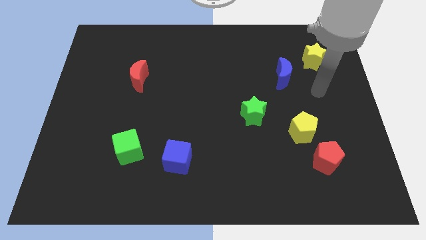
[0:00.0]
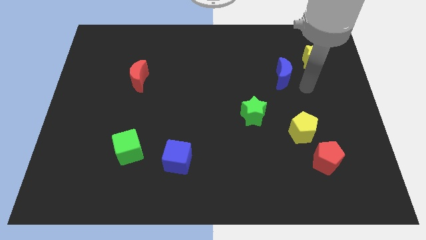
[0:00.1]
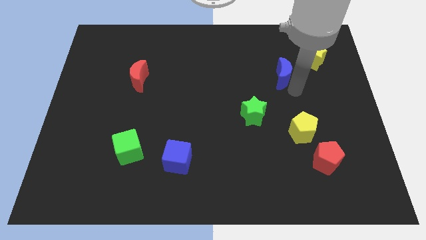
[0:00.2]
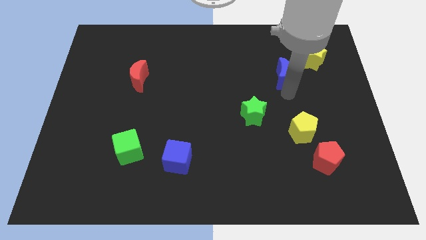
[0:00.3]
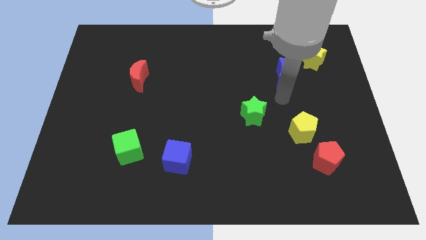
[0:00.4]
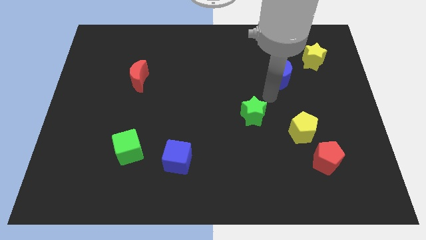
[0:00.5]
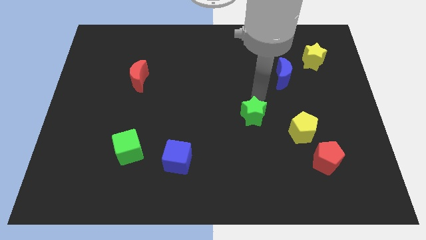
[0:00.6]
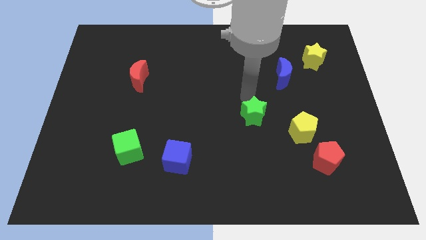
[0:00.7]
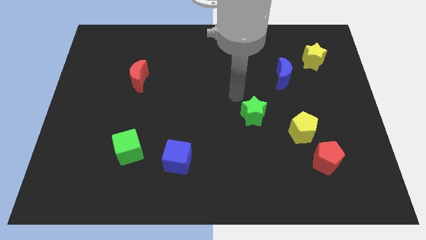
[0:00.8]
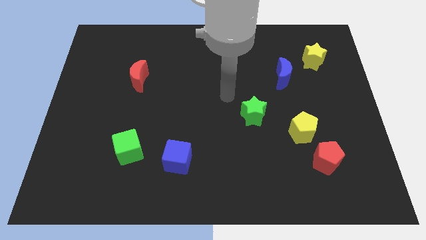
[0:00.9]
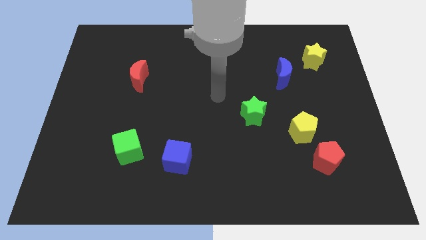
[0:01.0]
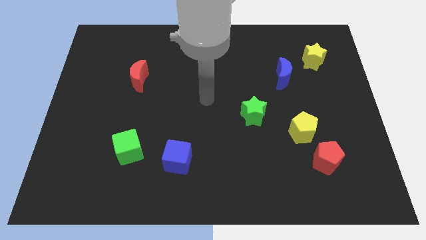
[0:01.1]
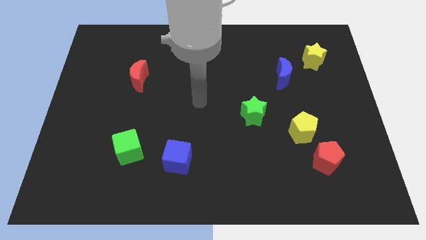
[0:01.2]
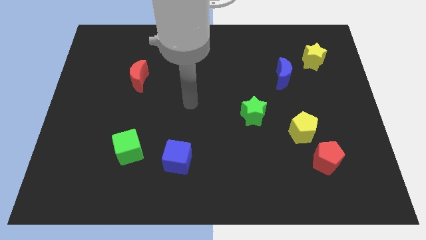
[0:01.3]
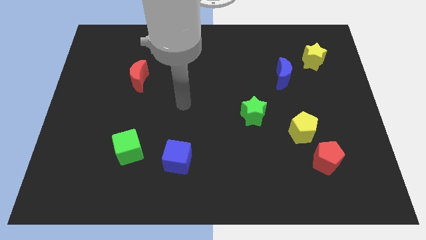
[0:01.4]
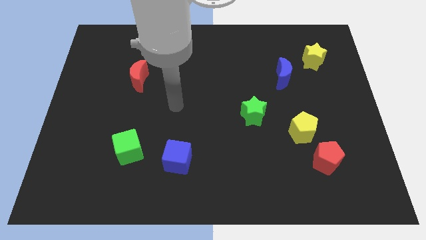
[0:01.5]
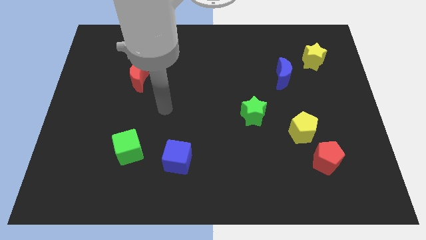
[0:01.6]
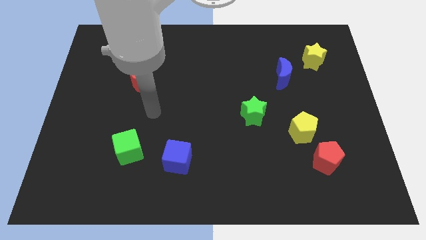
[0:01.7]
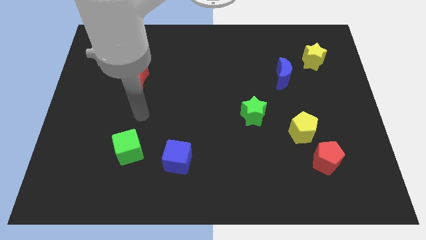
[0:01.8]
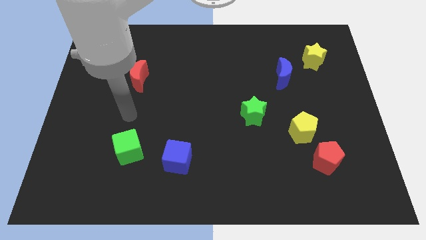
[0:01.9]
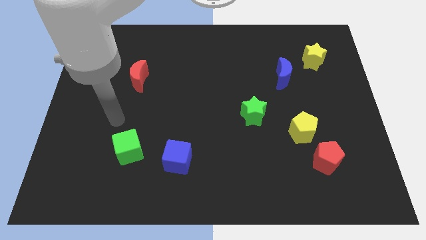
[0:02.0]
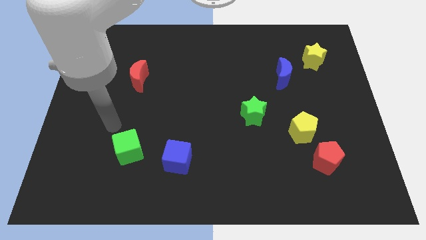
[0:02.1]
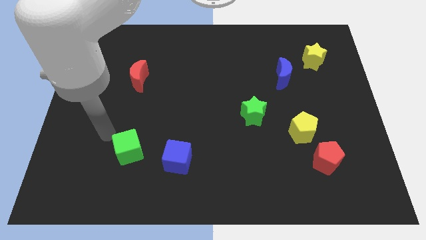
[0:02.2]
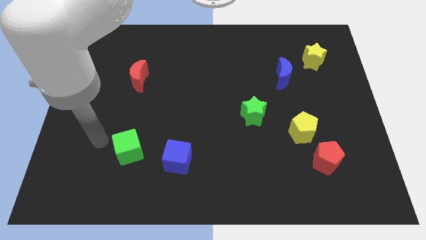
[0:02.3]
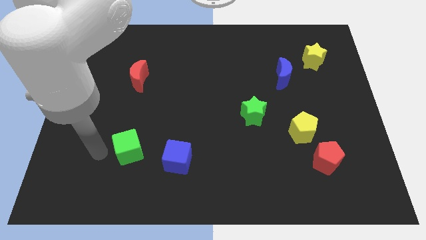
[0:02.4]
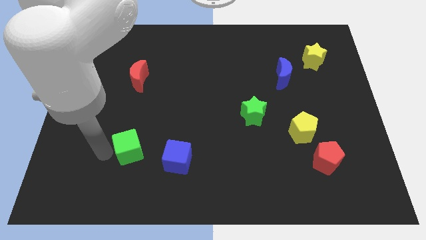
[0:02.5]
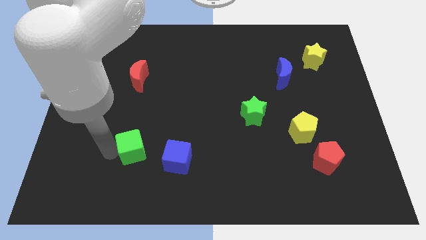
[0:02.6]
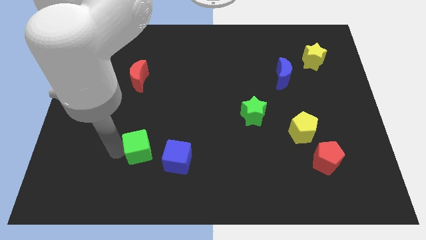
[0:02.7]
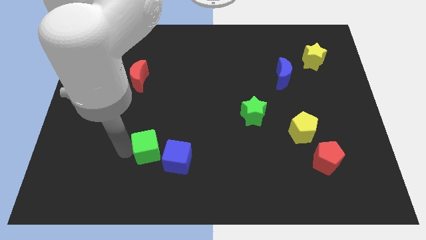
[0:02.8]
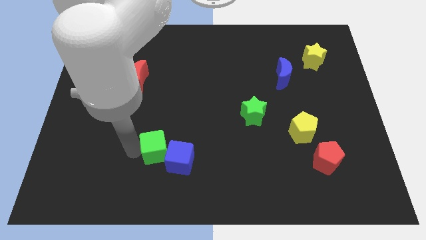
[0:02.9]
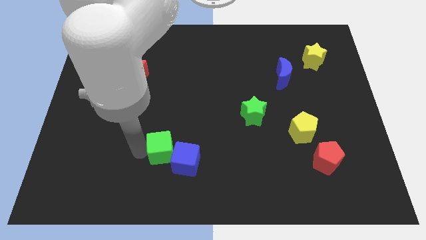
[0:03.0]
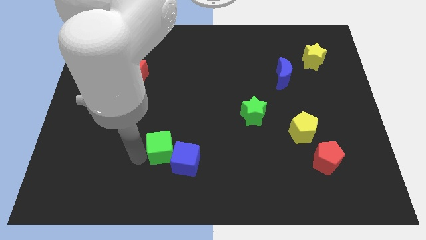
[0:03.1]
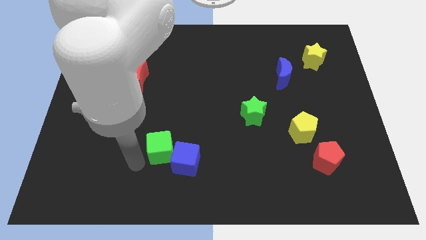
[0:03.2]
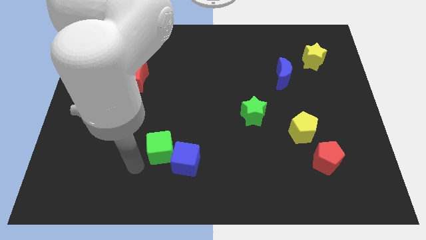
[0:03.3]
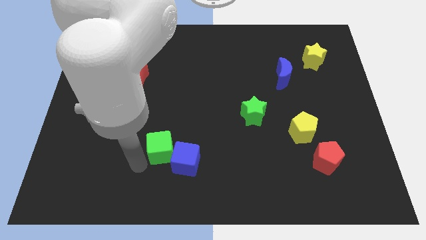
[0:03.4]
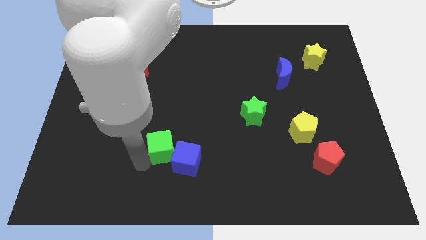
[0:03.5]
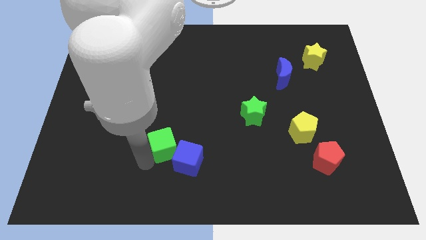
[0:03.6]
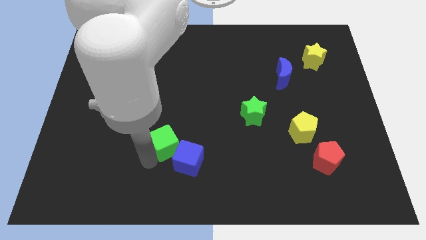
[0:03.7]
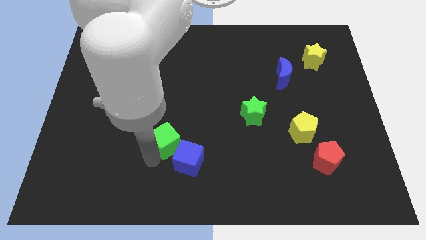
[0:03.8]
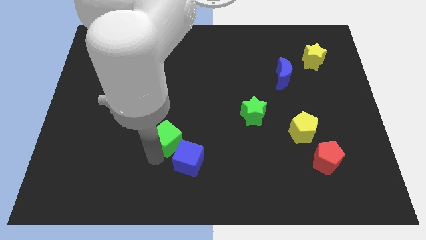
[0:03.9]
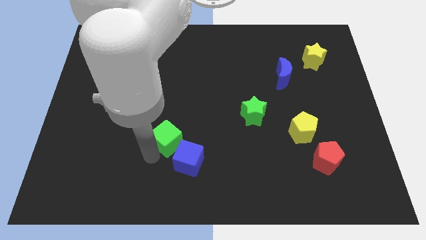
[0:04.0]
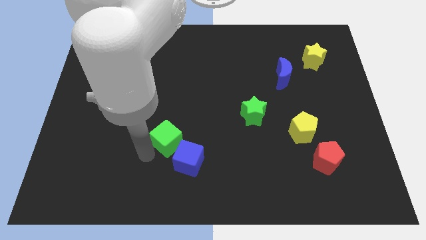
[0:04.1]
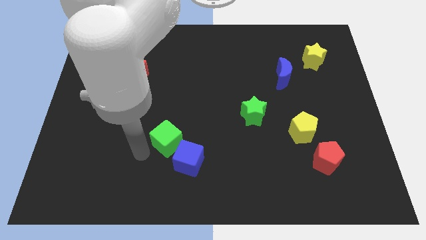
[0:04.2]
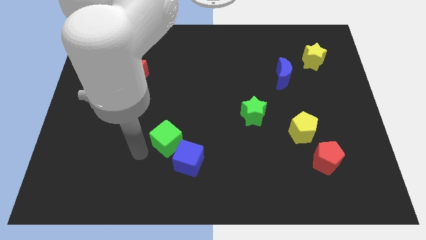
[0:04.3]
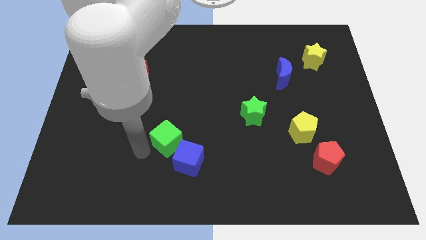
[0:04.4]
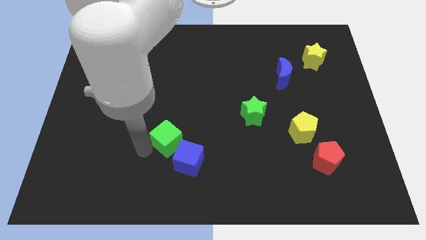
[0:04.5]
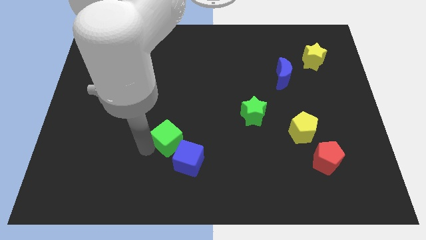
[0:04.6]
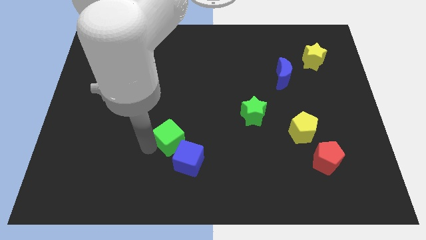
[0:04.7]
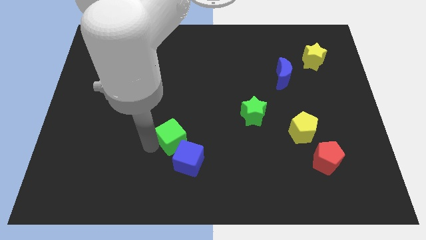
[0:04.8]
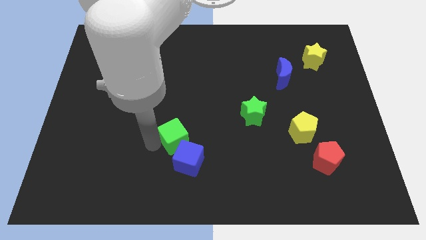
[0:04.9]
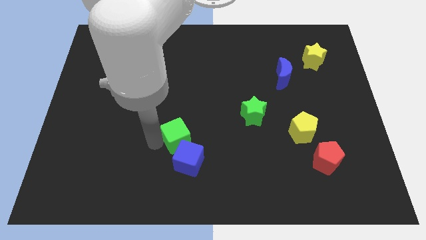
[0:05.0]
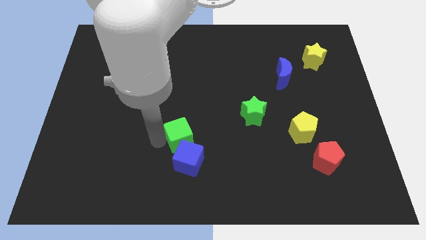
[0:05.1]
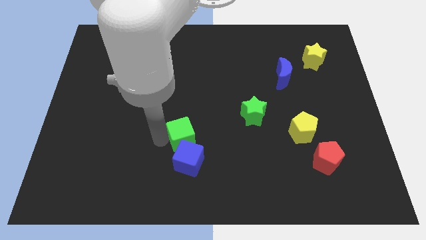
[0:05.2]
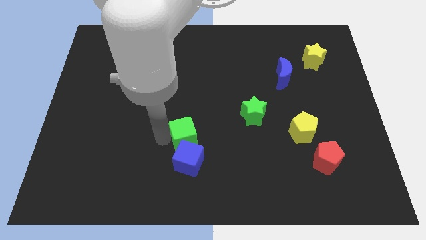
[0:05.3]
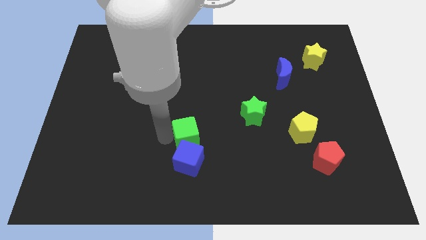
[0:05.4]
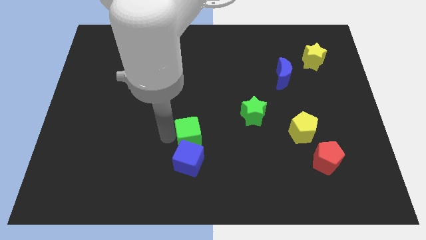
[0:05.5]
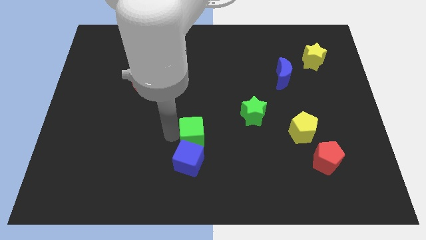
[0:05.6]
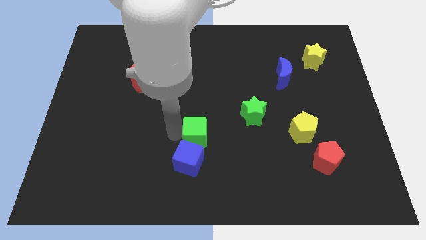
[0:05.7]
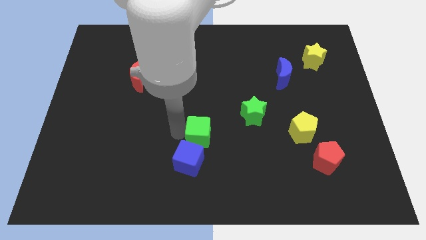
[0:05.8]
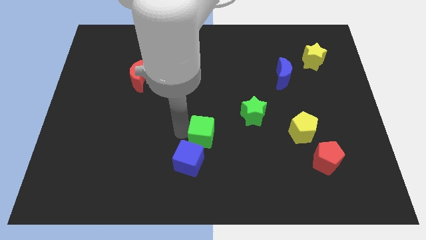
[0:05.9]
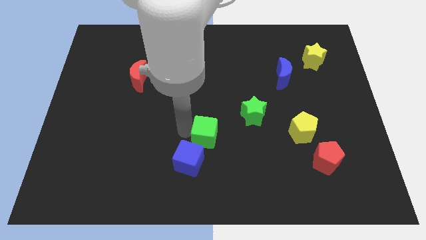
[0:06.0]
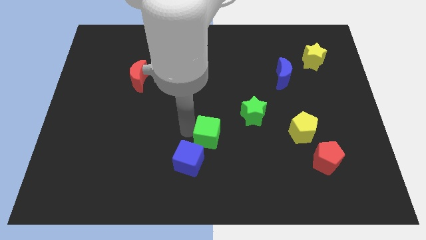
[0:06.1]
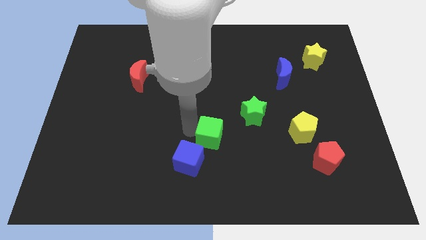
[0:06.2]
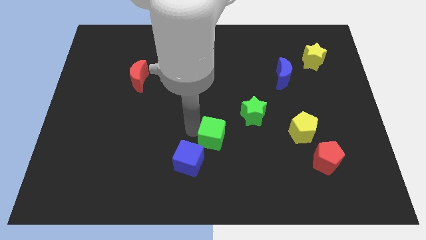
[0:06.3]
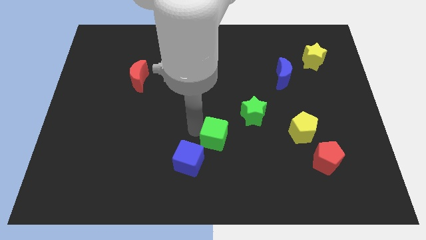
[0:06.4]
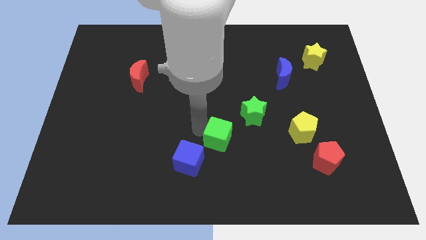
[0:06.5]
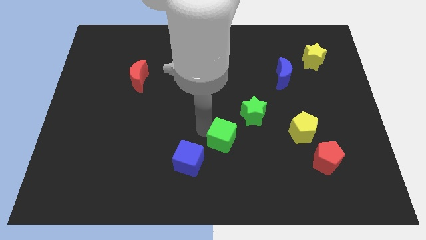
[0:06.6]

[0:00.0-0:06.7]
push the green cube right

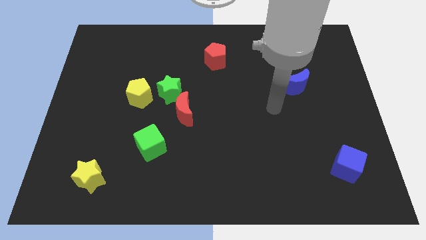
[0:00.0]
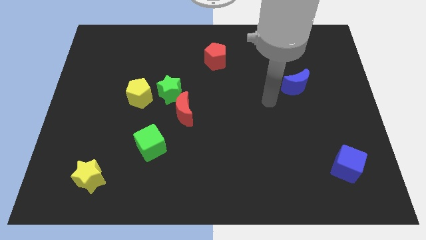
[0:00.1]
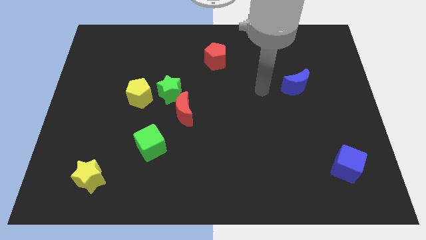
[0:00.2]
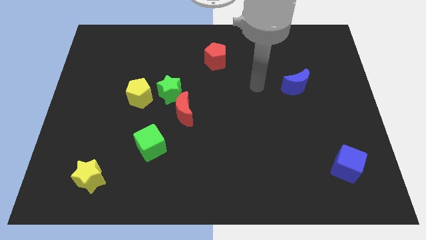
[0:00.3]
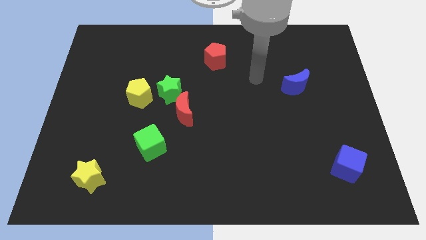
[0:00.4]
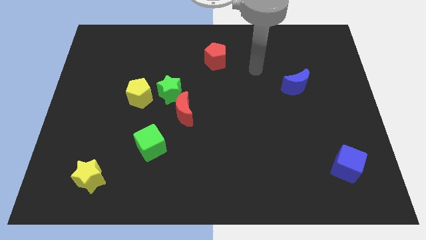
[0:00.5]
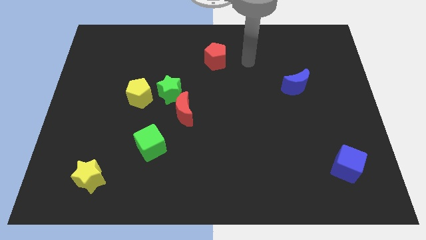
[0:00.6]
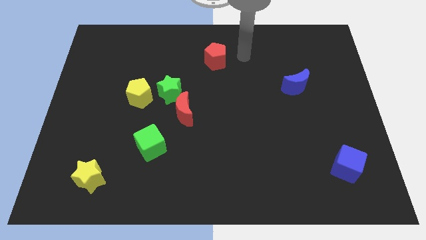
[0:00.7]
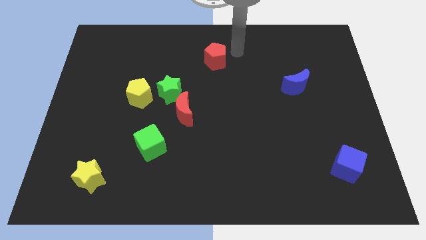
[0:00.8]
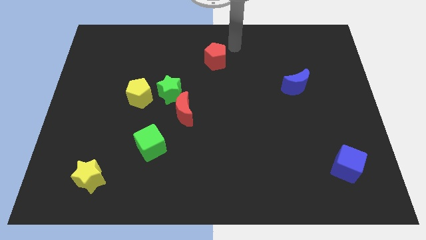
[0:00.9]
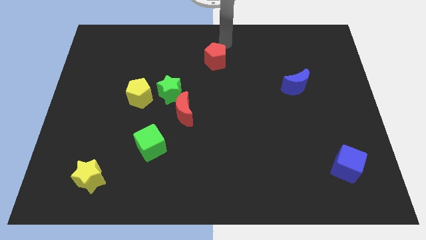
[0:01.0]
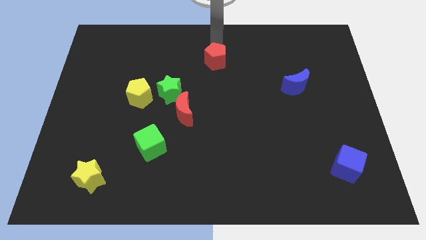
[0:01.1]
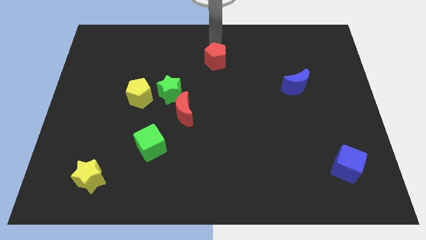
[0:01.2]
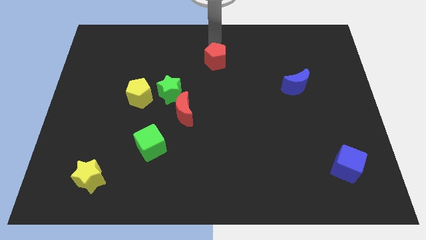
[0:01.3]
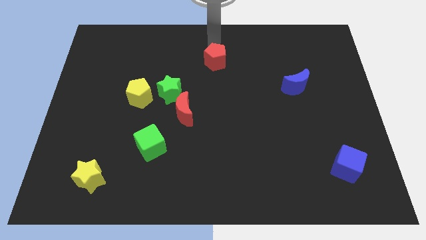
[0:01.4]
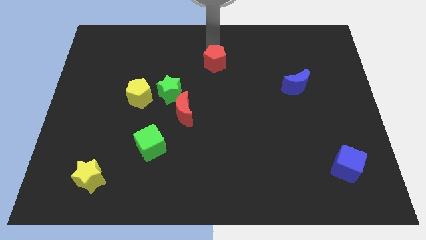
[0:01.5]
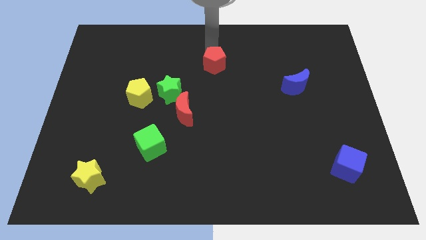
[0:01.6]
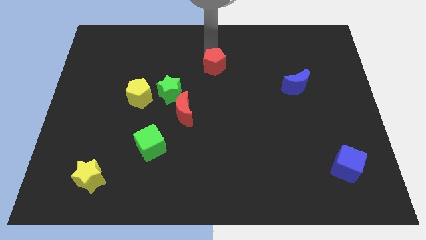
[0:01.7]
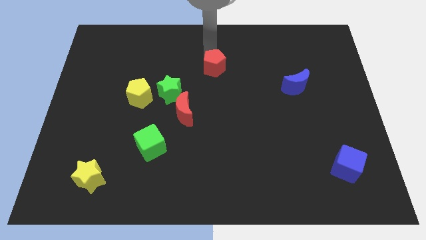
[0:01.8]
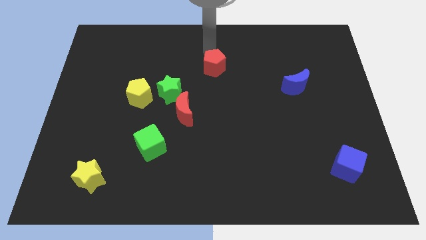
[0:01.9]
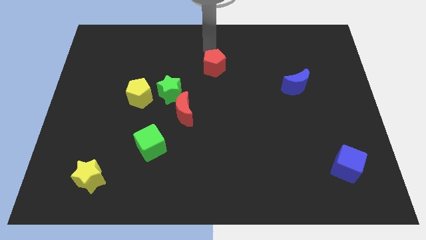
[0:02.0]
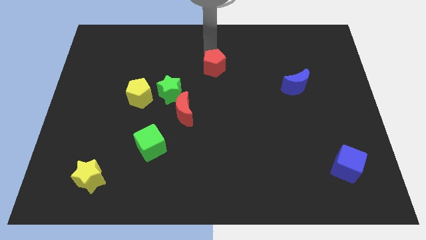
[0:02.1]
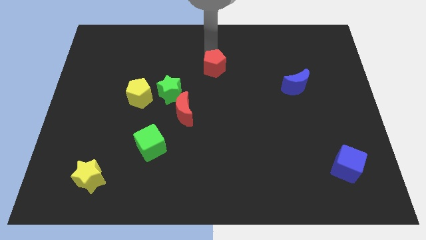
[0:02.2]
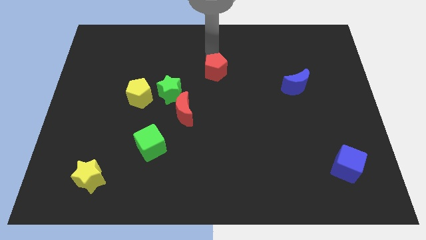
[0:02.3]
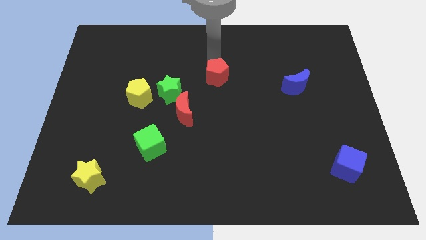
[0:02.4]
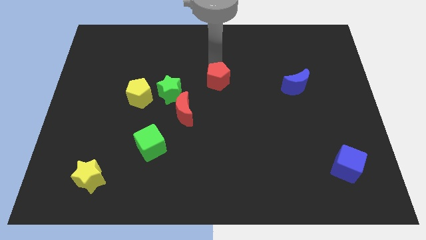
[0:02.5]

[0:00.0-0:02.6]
slightly slide the red pentagon down
